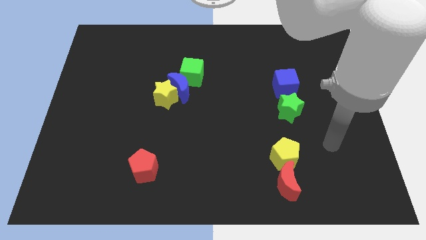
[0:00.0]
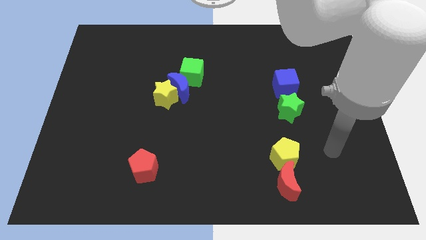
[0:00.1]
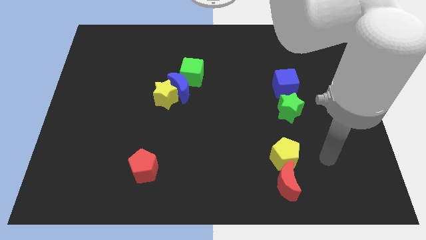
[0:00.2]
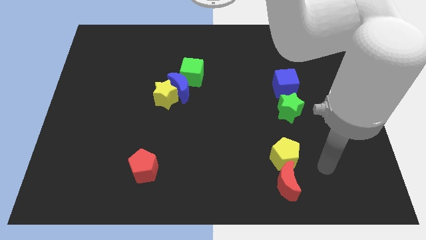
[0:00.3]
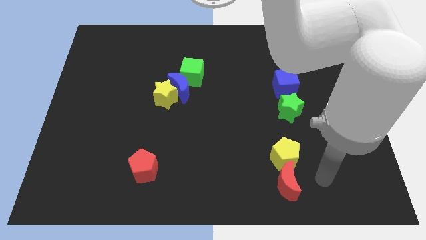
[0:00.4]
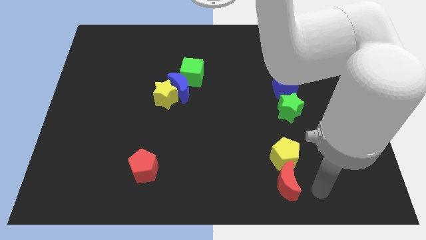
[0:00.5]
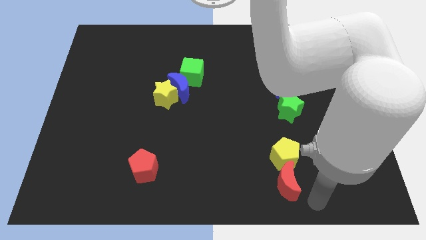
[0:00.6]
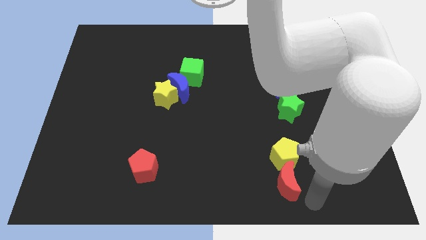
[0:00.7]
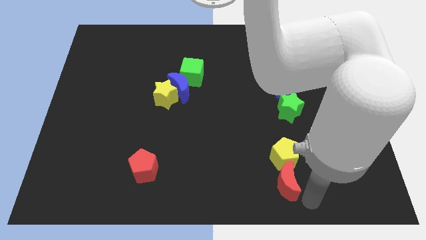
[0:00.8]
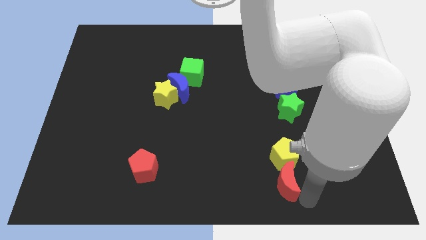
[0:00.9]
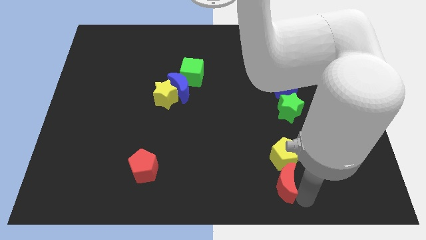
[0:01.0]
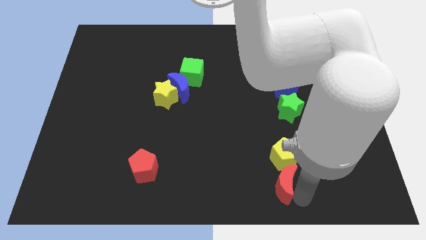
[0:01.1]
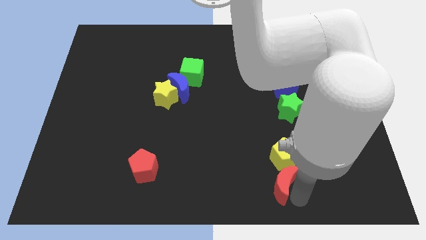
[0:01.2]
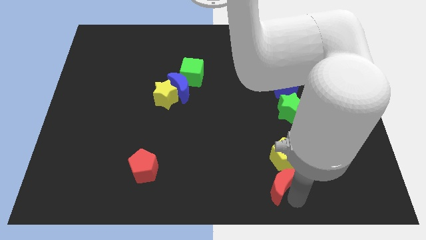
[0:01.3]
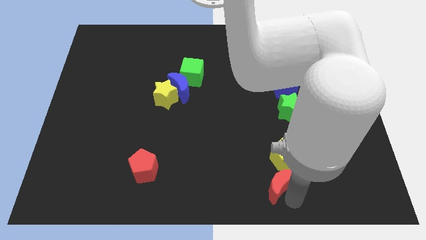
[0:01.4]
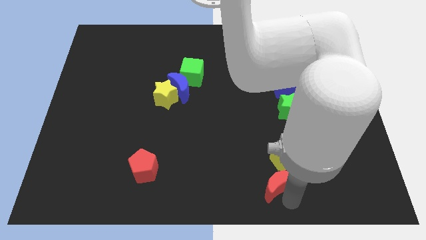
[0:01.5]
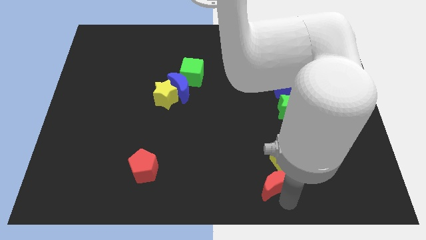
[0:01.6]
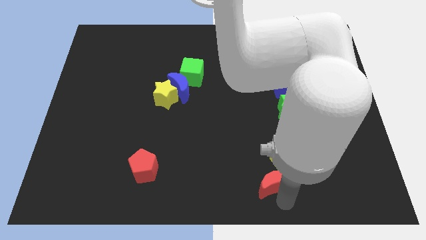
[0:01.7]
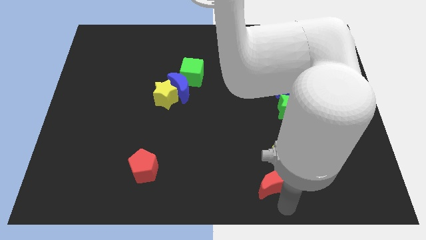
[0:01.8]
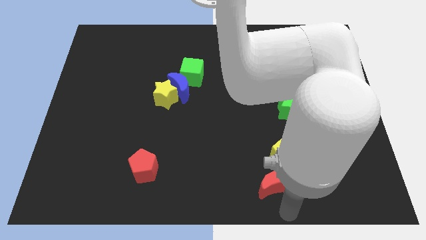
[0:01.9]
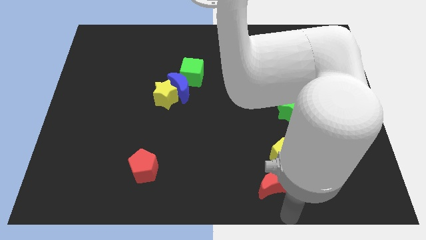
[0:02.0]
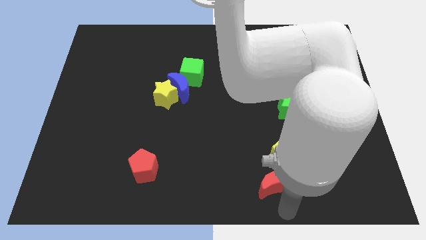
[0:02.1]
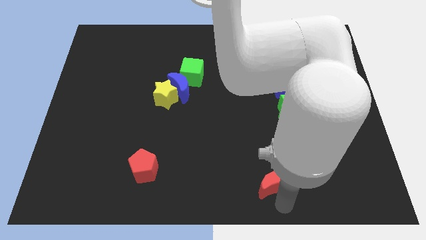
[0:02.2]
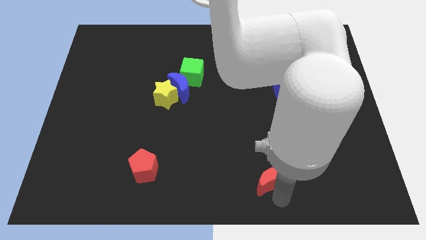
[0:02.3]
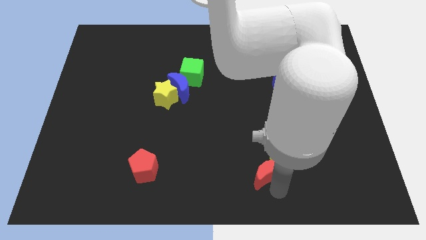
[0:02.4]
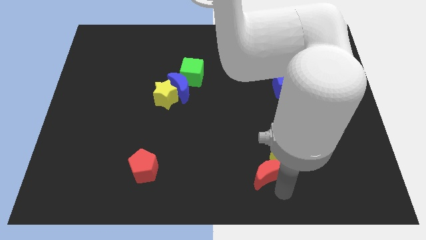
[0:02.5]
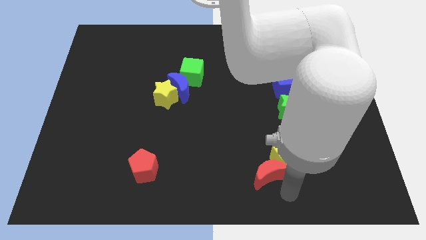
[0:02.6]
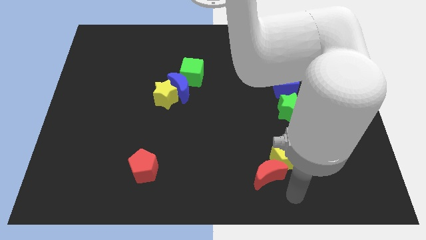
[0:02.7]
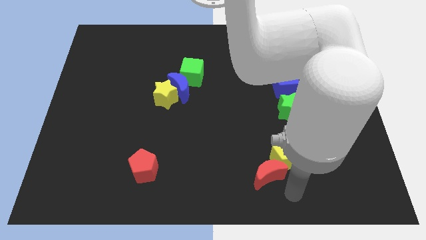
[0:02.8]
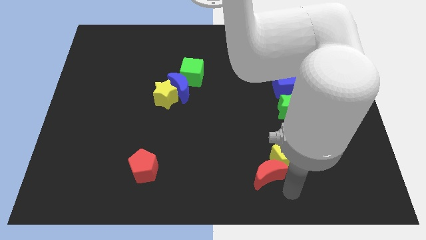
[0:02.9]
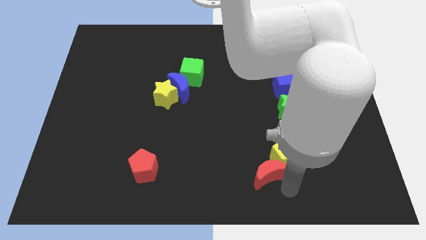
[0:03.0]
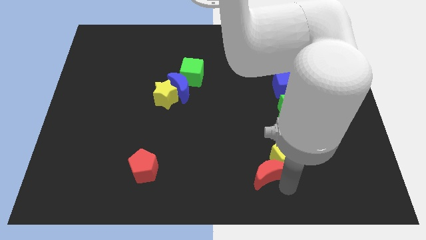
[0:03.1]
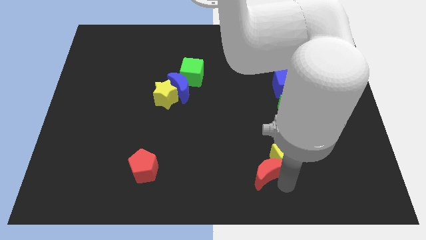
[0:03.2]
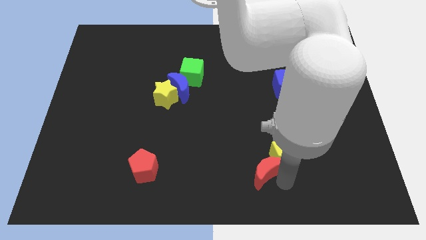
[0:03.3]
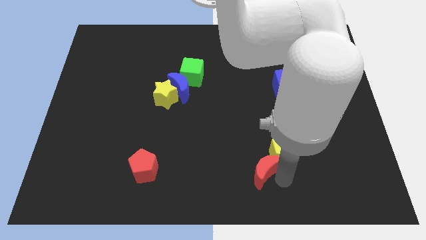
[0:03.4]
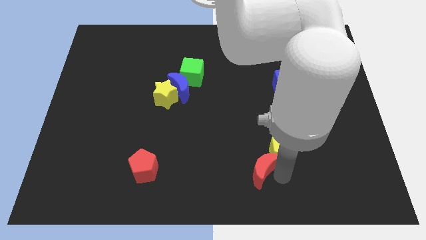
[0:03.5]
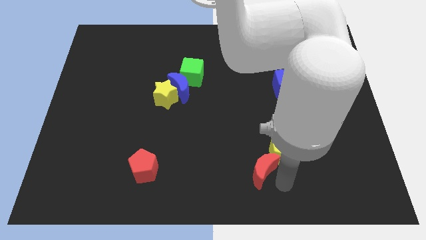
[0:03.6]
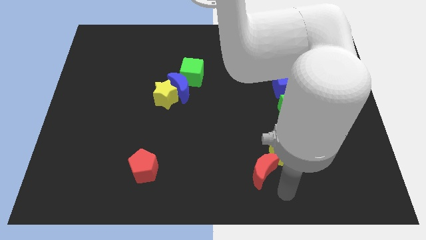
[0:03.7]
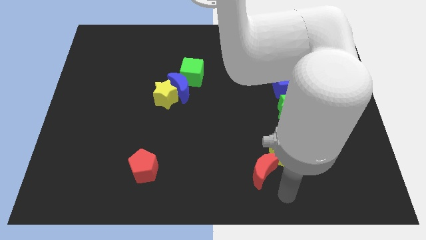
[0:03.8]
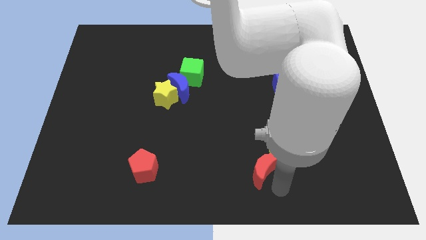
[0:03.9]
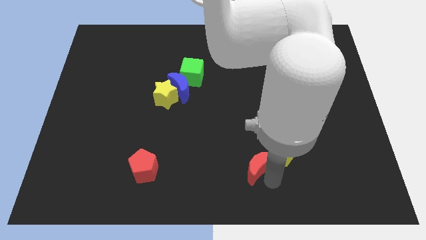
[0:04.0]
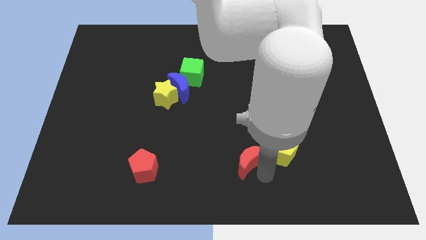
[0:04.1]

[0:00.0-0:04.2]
push the red moon diagonally up and left a little bit

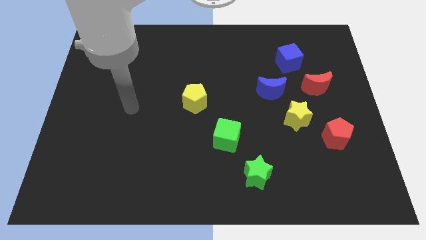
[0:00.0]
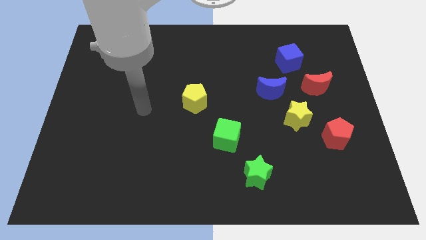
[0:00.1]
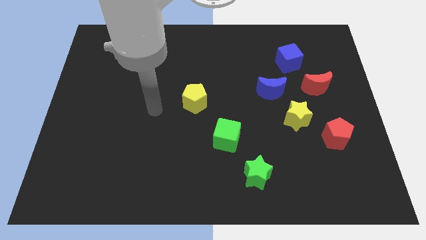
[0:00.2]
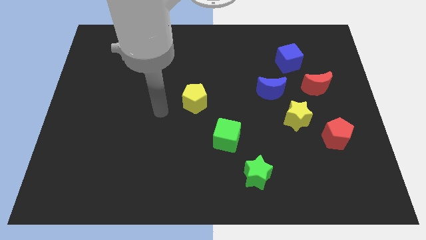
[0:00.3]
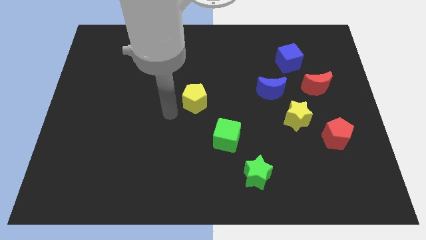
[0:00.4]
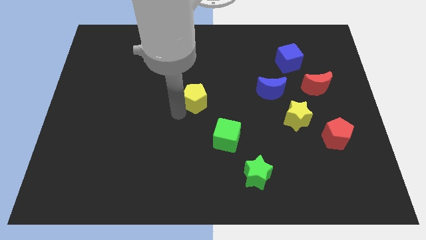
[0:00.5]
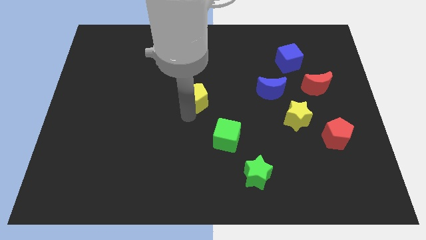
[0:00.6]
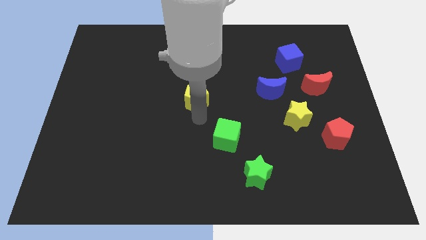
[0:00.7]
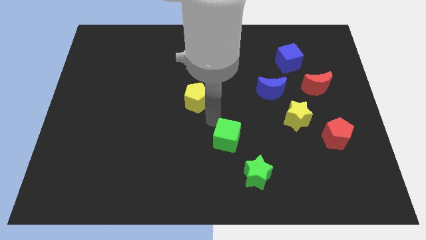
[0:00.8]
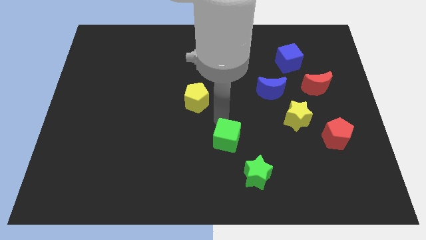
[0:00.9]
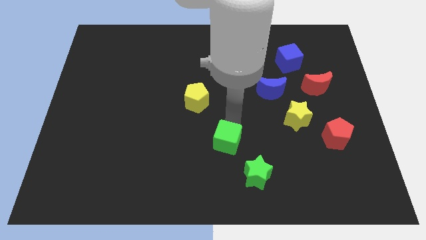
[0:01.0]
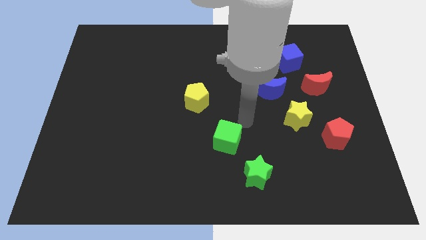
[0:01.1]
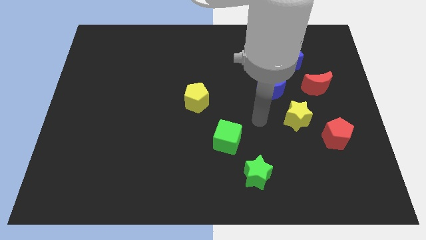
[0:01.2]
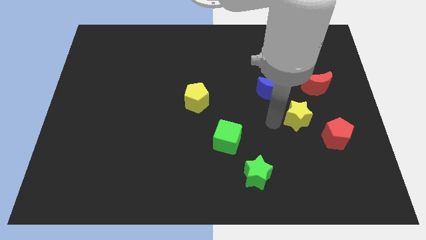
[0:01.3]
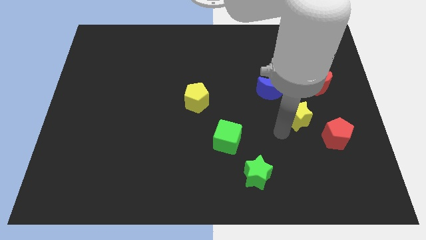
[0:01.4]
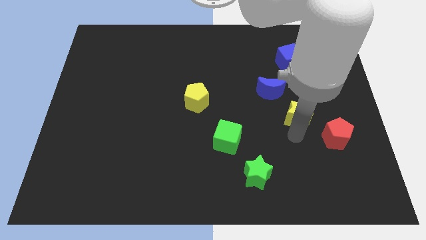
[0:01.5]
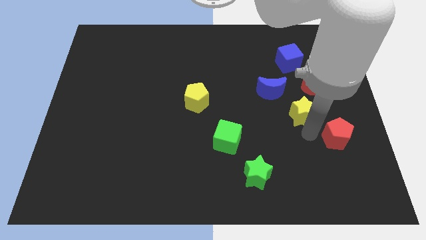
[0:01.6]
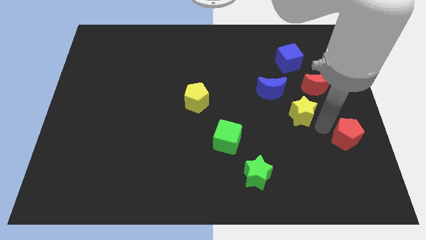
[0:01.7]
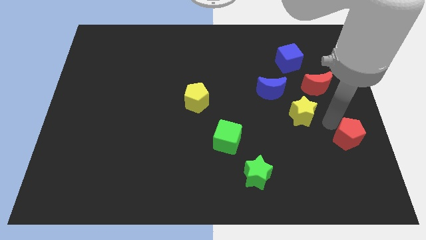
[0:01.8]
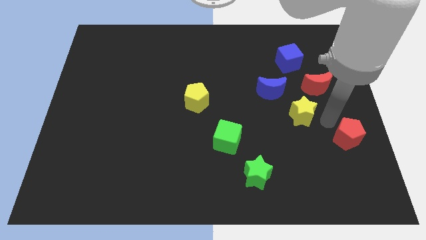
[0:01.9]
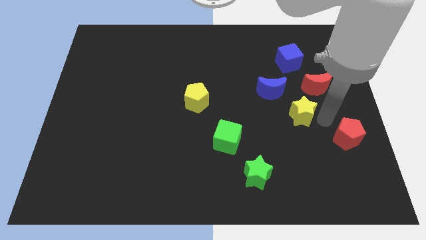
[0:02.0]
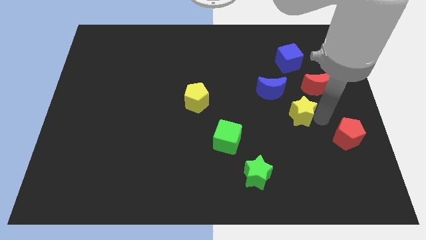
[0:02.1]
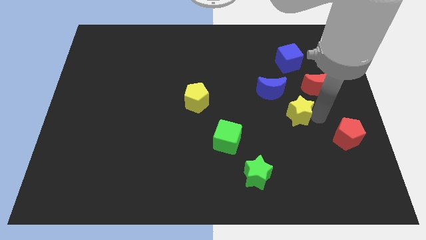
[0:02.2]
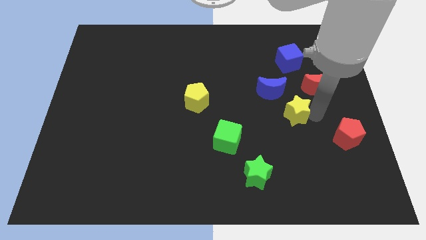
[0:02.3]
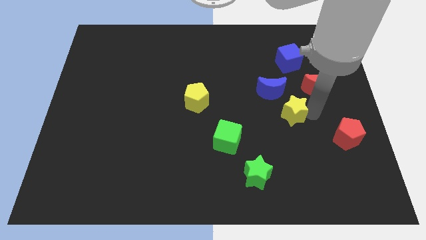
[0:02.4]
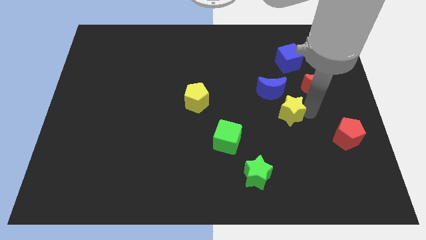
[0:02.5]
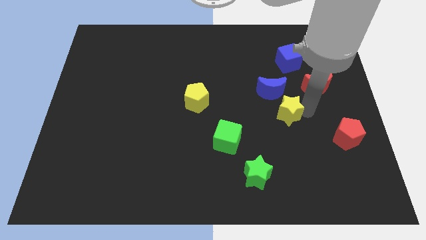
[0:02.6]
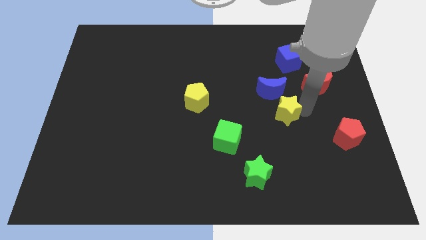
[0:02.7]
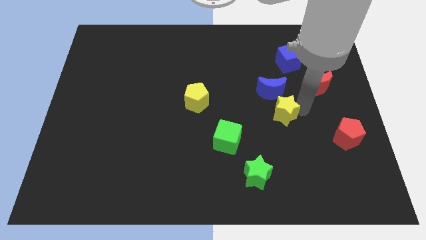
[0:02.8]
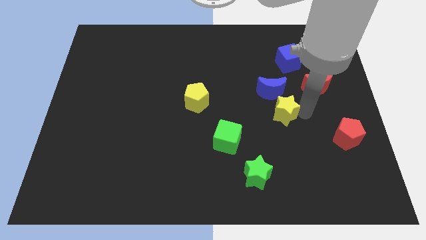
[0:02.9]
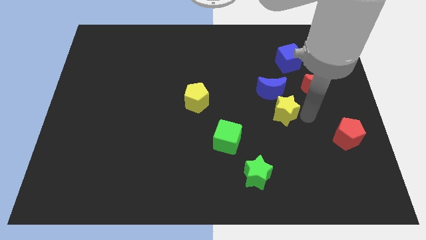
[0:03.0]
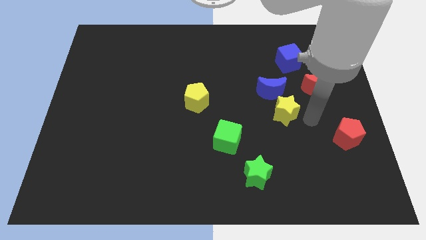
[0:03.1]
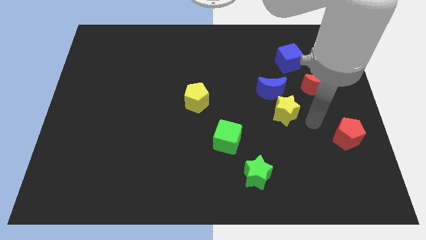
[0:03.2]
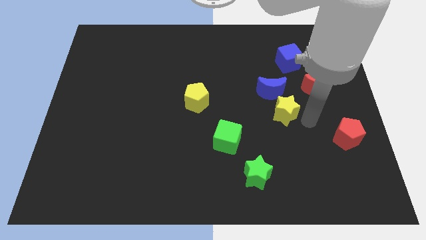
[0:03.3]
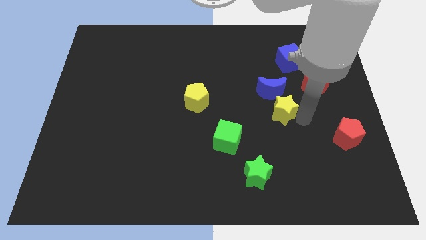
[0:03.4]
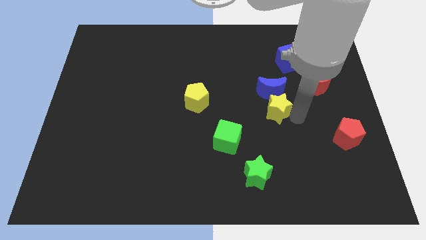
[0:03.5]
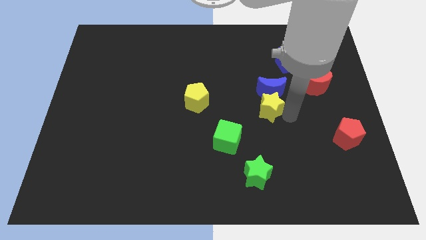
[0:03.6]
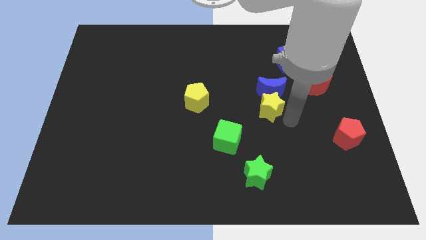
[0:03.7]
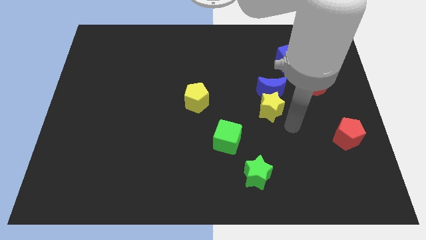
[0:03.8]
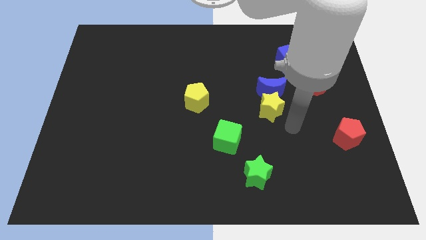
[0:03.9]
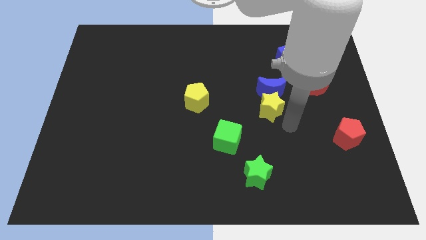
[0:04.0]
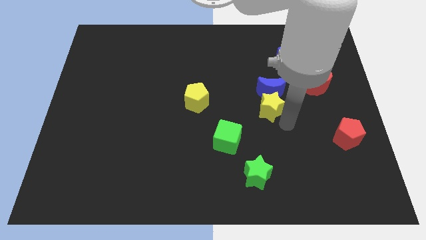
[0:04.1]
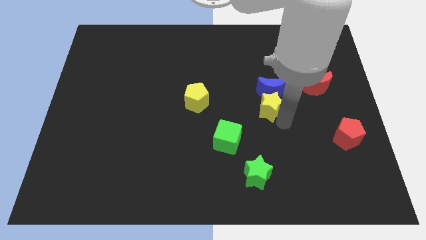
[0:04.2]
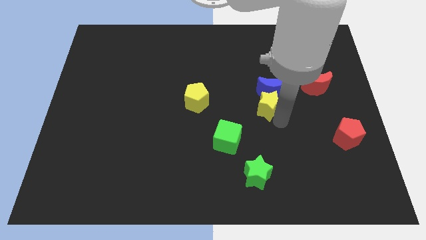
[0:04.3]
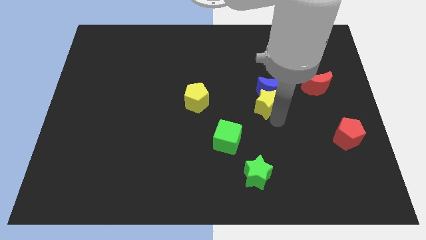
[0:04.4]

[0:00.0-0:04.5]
push the yellow star diagonally up and left a bit
